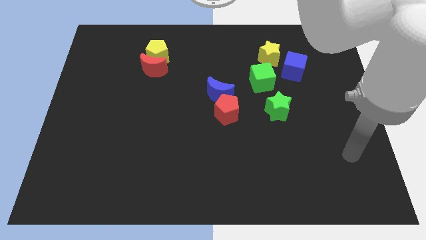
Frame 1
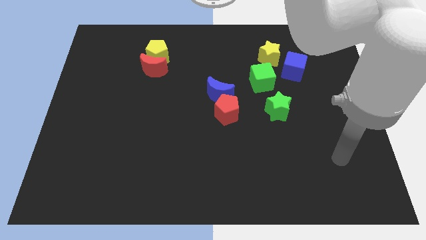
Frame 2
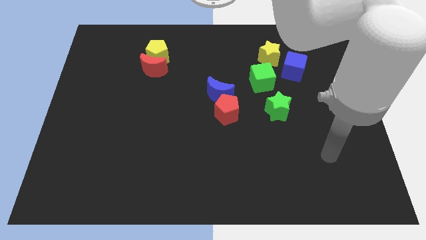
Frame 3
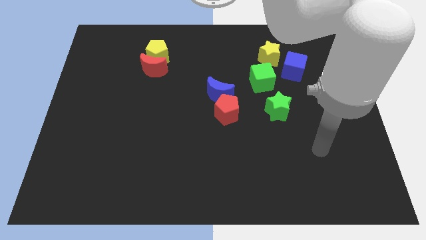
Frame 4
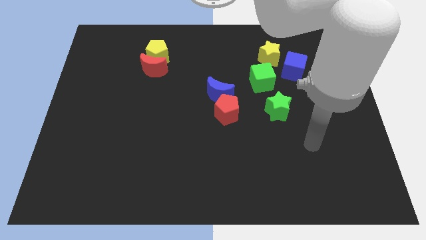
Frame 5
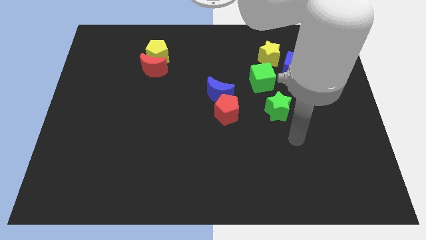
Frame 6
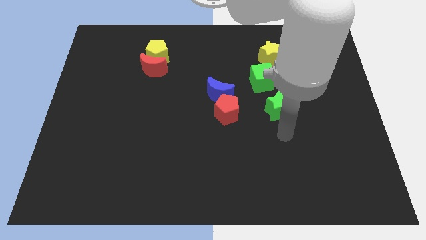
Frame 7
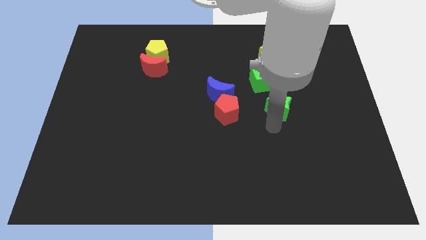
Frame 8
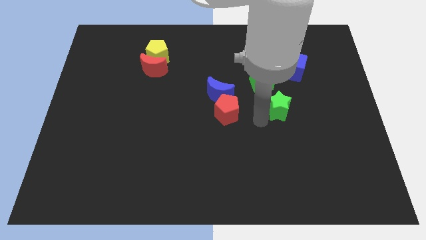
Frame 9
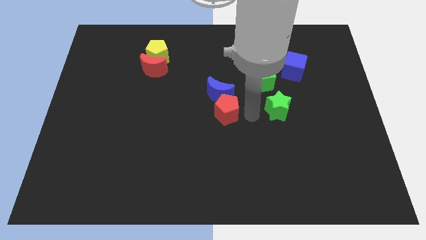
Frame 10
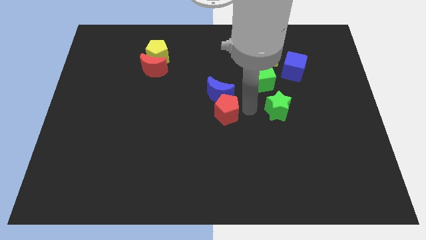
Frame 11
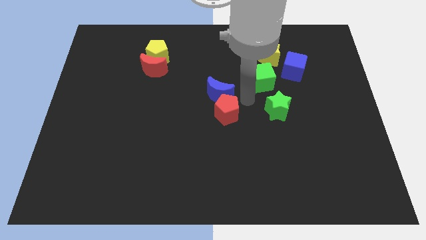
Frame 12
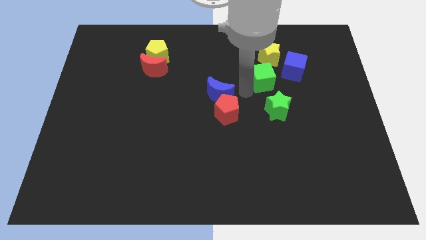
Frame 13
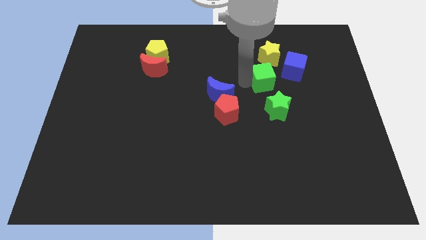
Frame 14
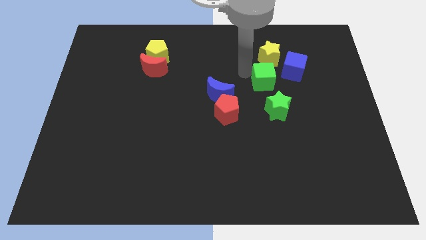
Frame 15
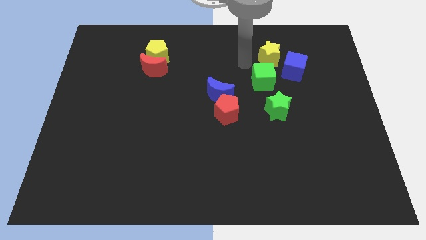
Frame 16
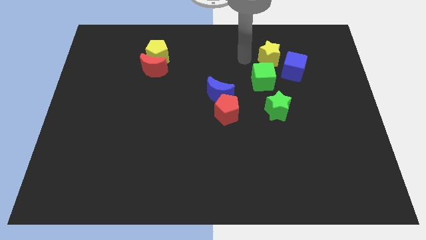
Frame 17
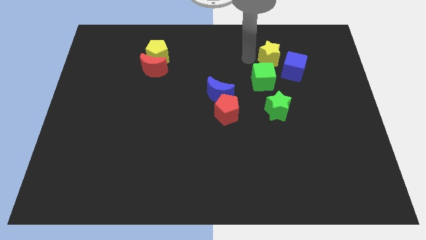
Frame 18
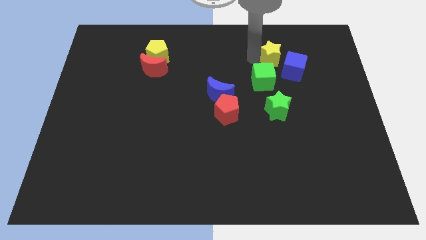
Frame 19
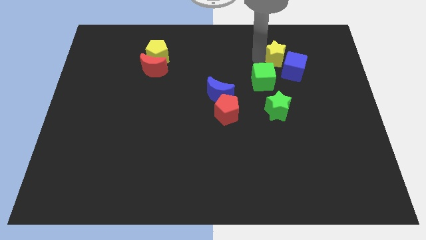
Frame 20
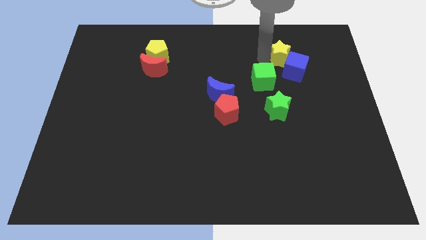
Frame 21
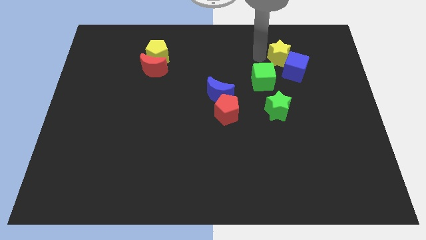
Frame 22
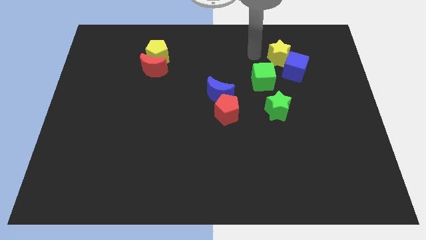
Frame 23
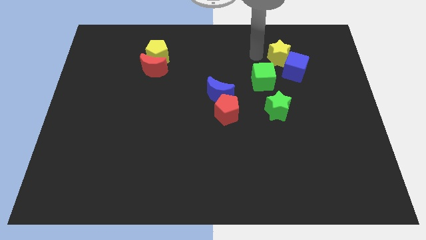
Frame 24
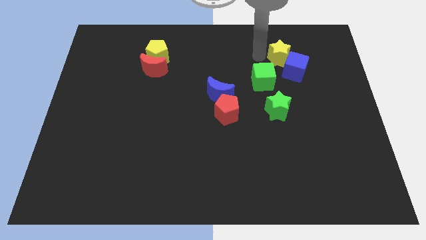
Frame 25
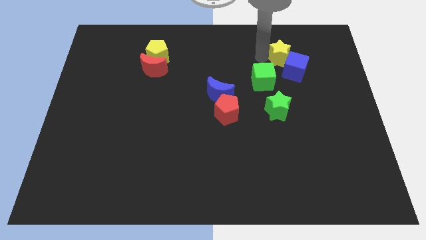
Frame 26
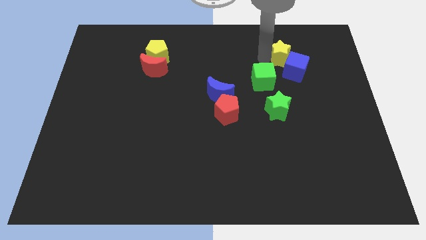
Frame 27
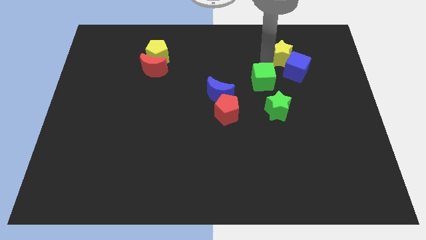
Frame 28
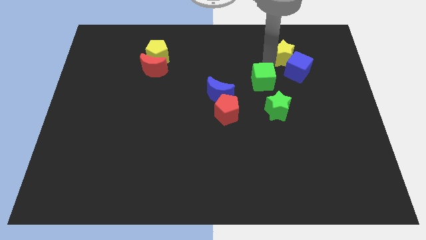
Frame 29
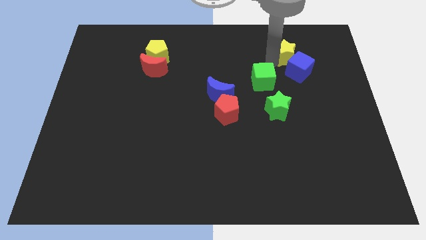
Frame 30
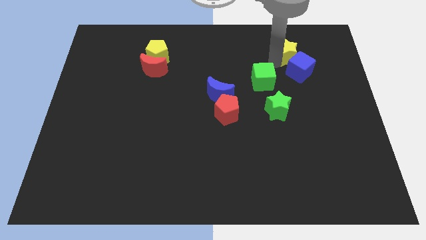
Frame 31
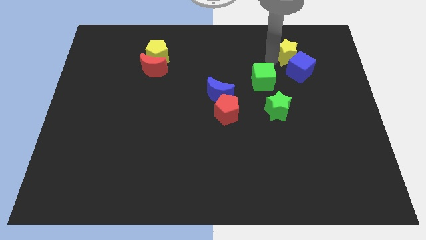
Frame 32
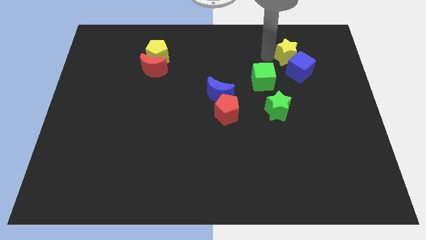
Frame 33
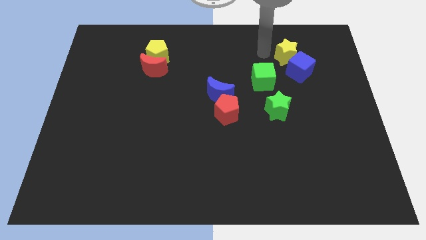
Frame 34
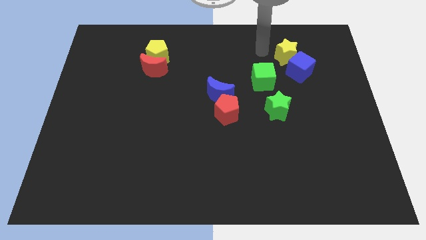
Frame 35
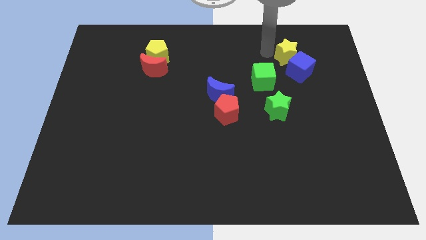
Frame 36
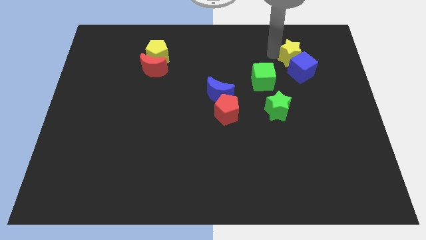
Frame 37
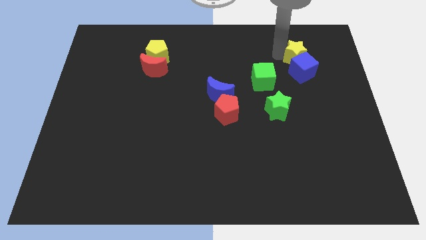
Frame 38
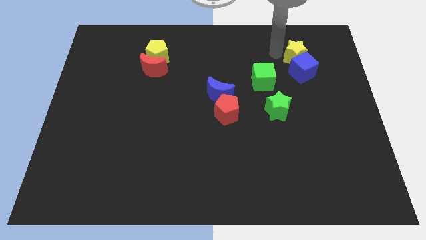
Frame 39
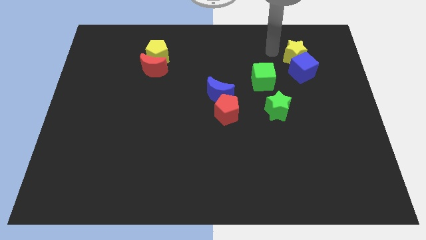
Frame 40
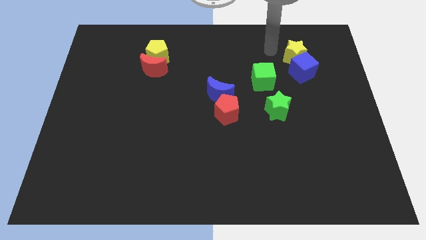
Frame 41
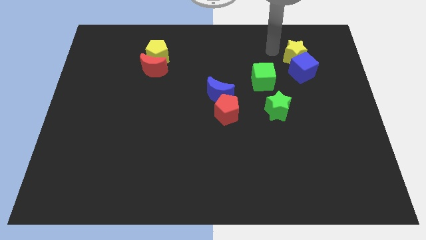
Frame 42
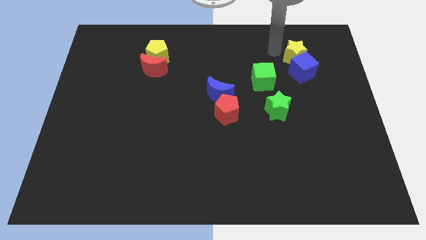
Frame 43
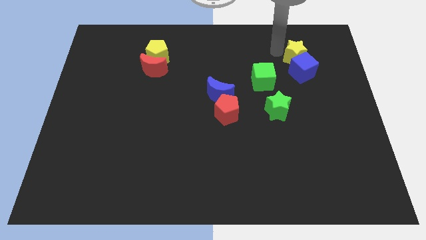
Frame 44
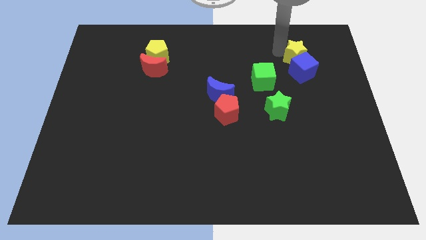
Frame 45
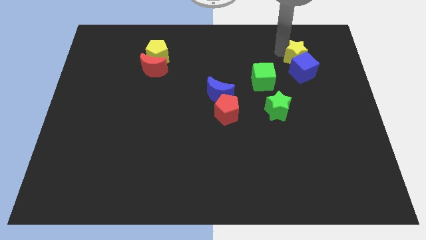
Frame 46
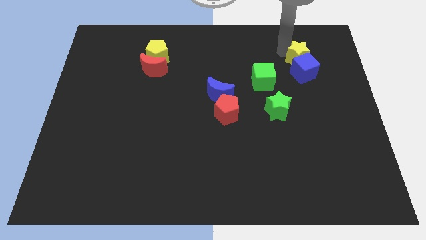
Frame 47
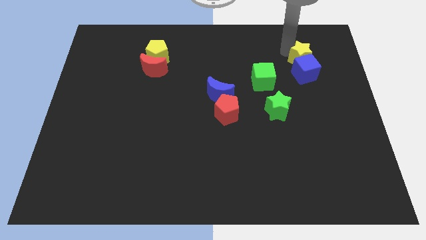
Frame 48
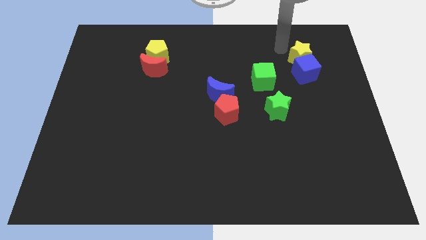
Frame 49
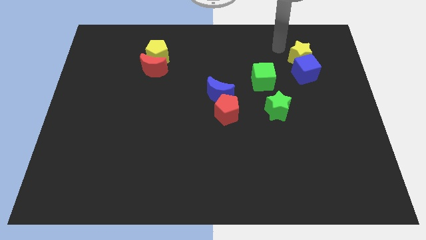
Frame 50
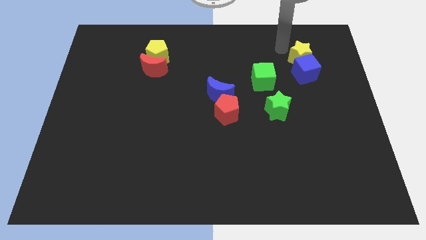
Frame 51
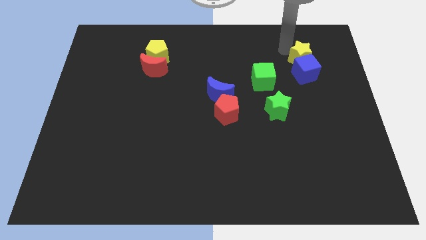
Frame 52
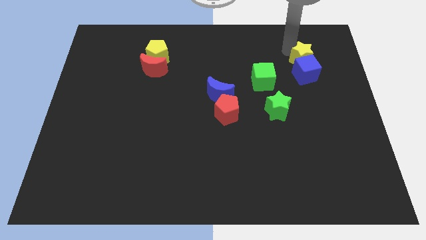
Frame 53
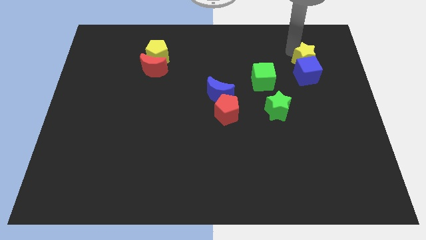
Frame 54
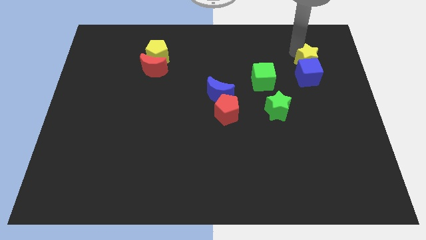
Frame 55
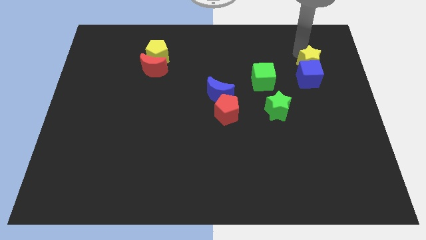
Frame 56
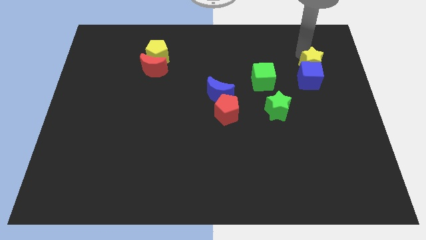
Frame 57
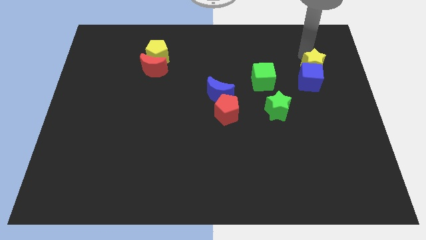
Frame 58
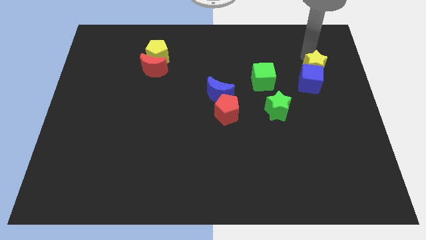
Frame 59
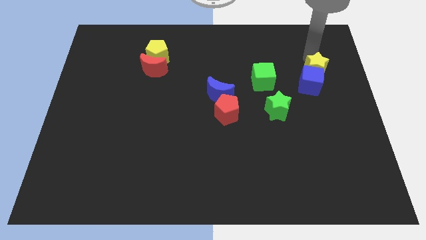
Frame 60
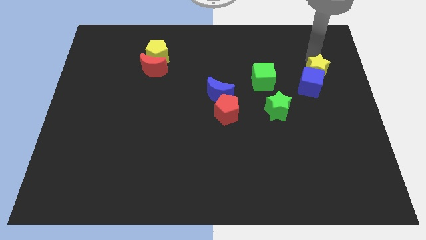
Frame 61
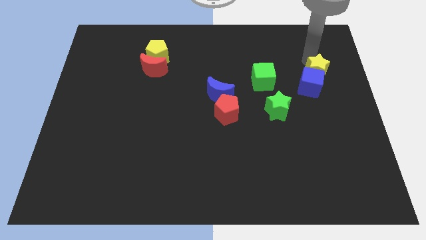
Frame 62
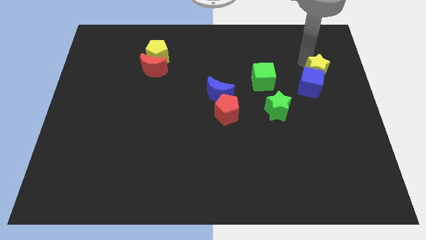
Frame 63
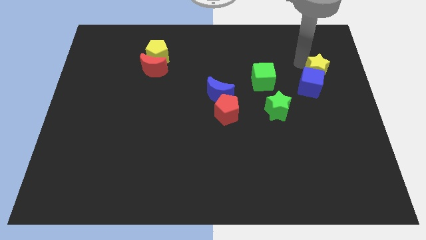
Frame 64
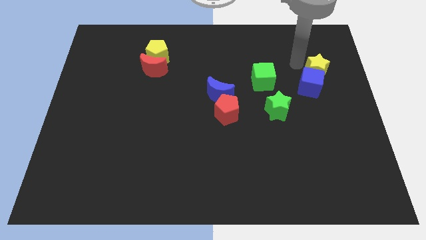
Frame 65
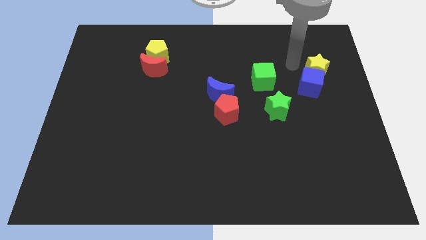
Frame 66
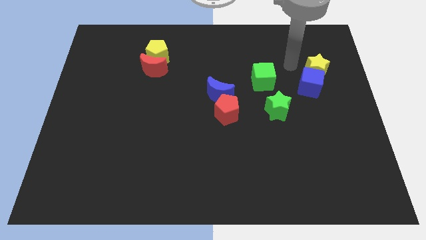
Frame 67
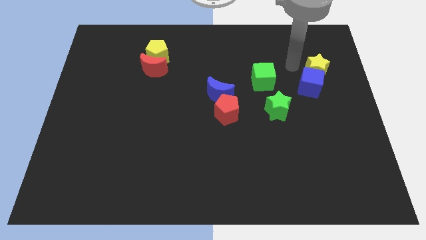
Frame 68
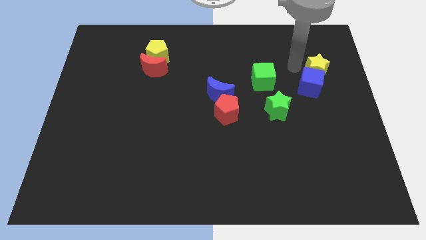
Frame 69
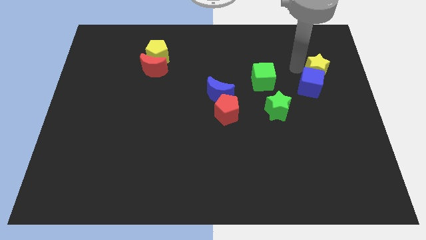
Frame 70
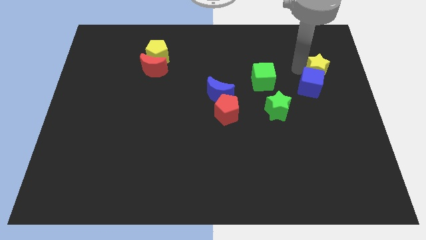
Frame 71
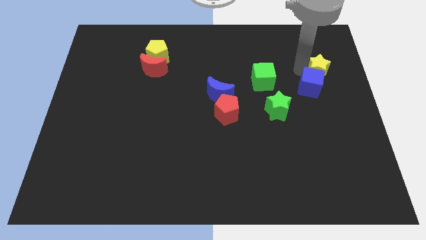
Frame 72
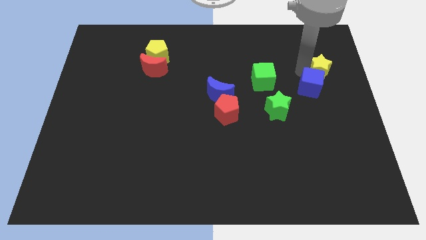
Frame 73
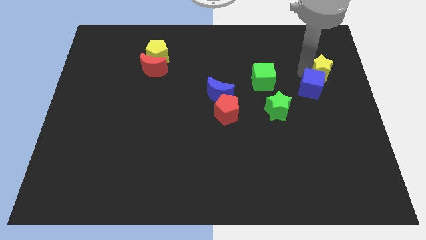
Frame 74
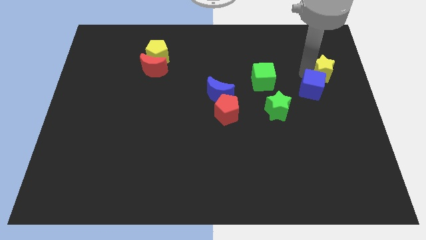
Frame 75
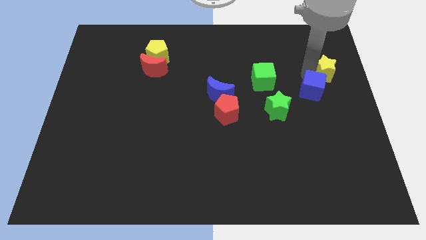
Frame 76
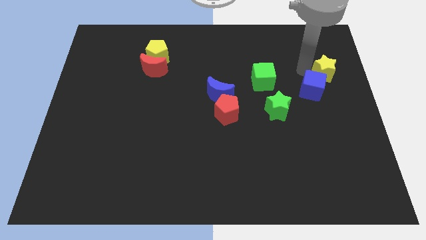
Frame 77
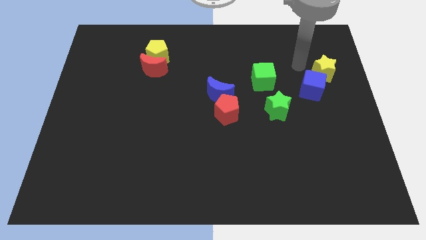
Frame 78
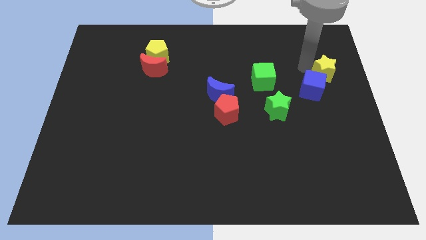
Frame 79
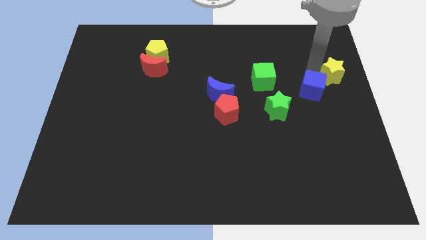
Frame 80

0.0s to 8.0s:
put the yellow star to the right side
